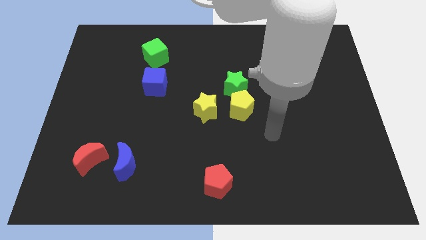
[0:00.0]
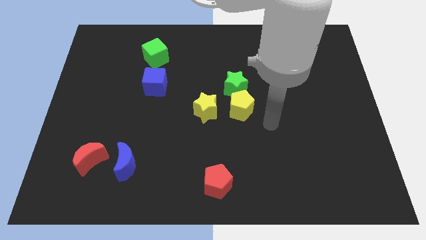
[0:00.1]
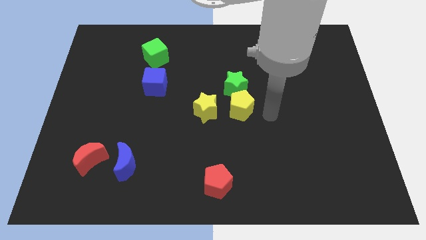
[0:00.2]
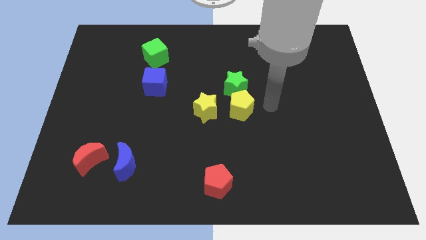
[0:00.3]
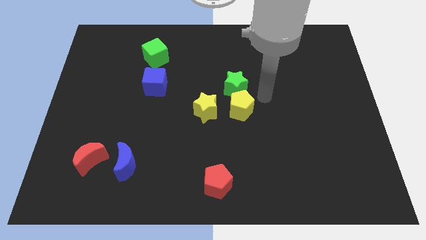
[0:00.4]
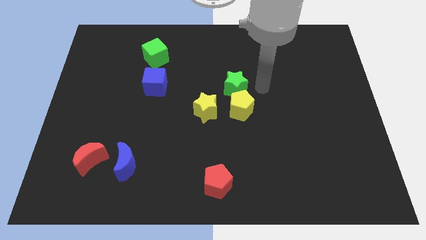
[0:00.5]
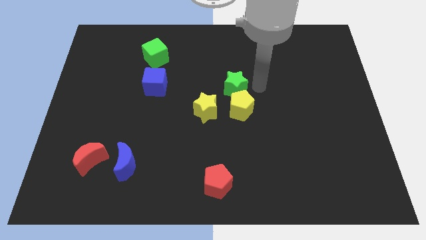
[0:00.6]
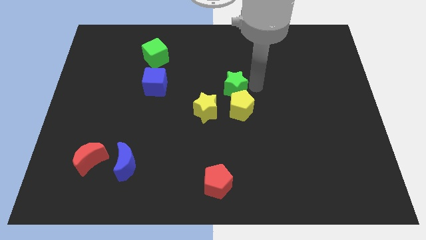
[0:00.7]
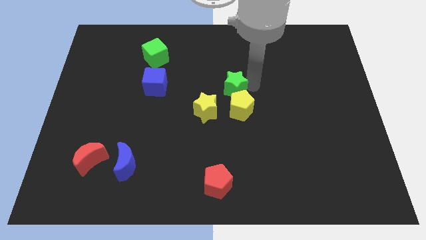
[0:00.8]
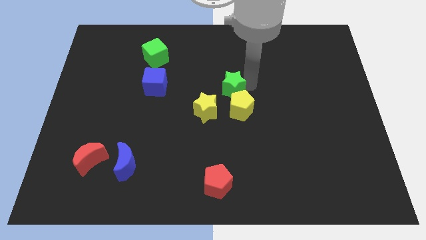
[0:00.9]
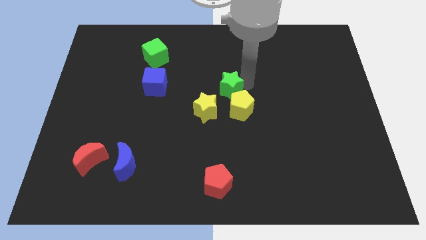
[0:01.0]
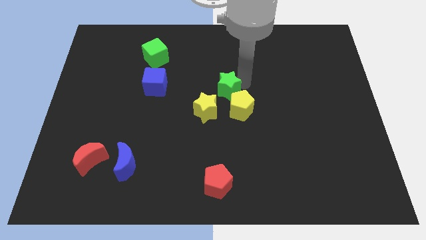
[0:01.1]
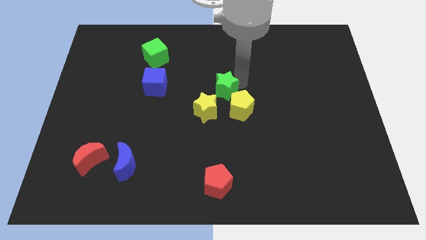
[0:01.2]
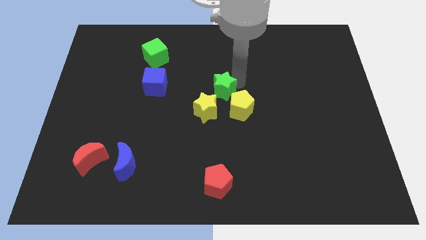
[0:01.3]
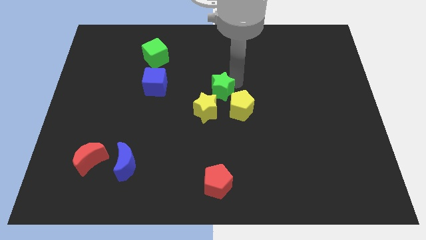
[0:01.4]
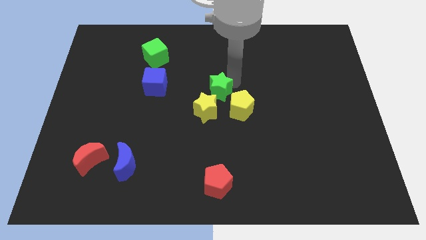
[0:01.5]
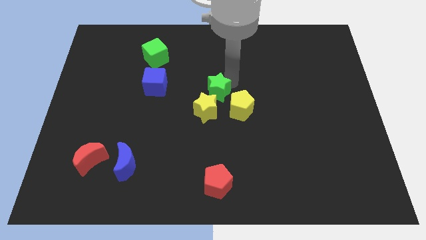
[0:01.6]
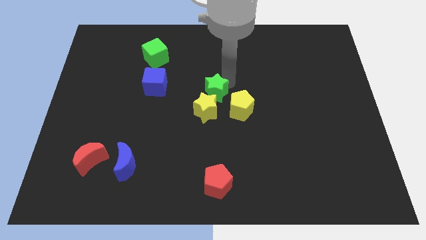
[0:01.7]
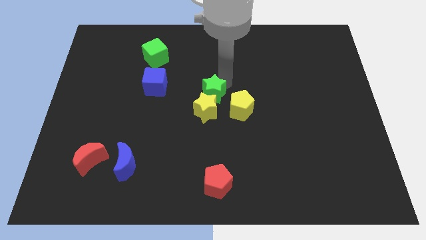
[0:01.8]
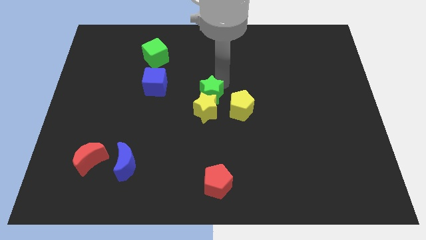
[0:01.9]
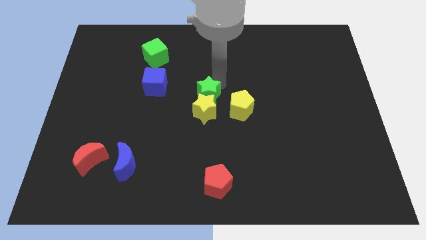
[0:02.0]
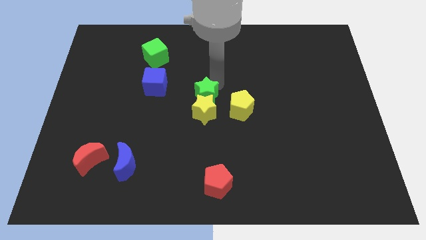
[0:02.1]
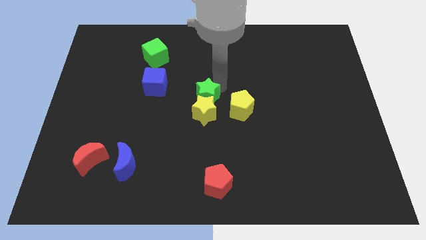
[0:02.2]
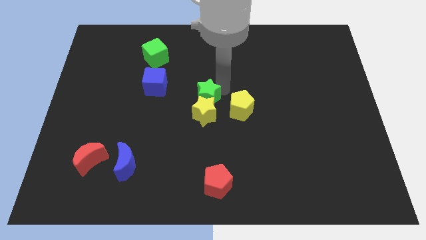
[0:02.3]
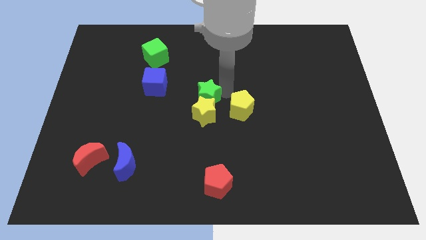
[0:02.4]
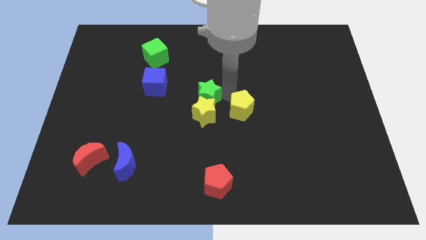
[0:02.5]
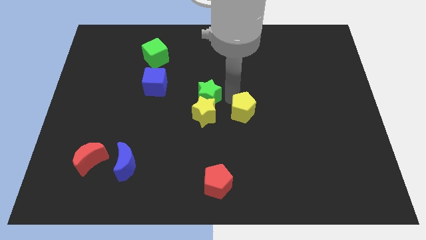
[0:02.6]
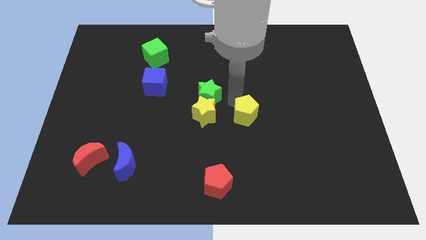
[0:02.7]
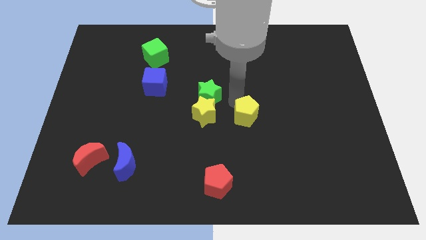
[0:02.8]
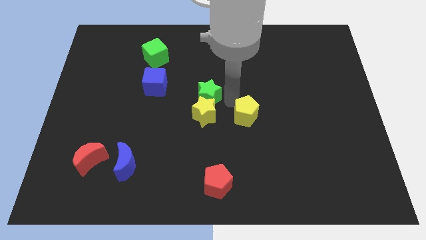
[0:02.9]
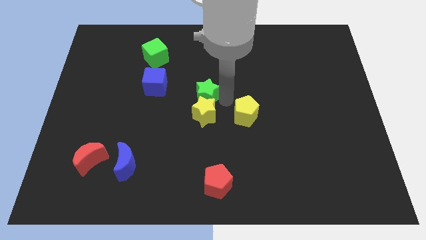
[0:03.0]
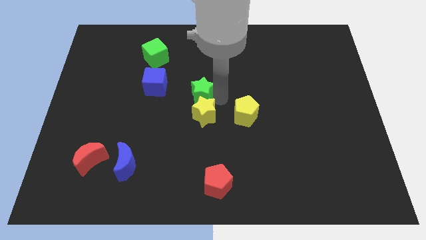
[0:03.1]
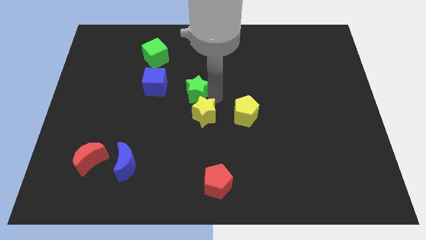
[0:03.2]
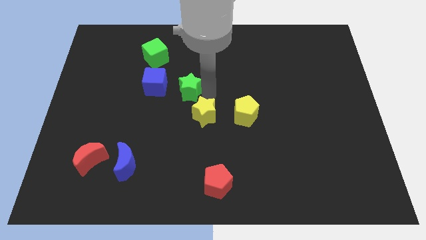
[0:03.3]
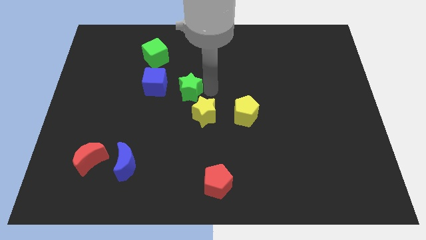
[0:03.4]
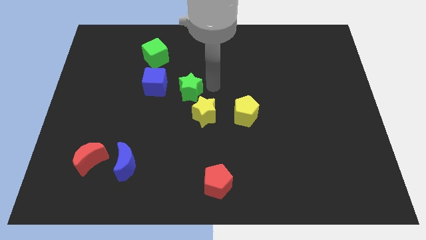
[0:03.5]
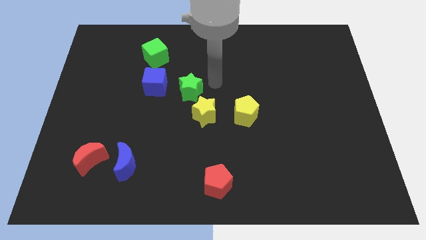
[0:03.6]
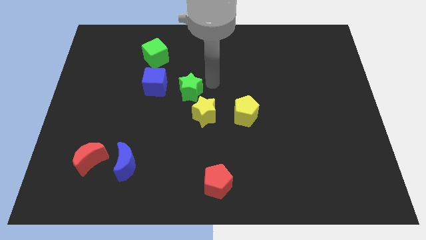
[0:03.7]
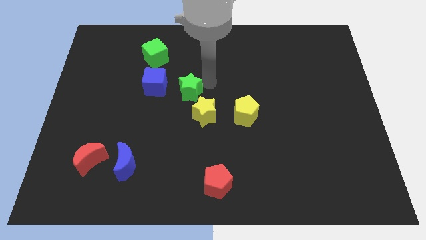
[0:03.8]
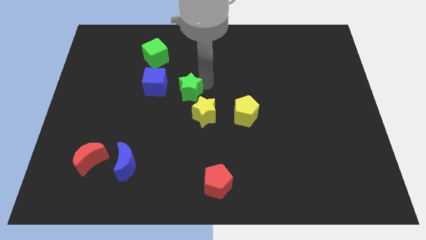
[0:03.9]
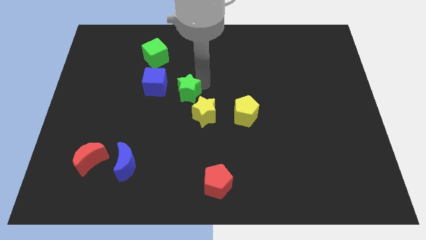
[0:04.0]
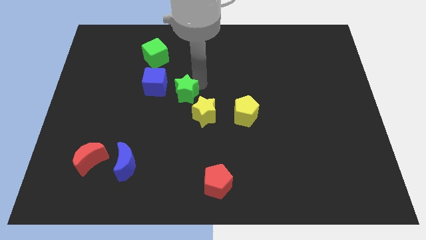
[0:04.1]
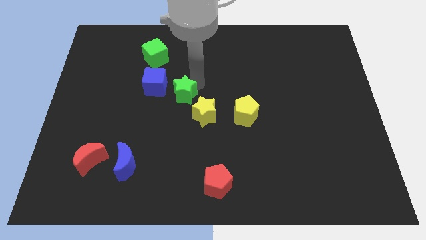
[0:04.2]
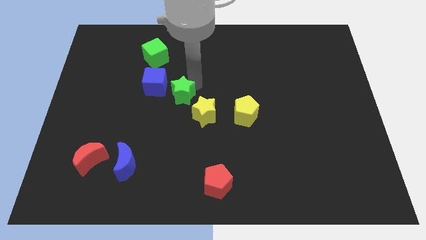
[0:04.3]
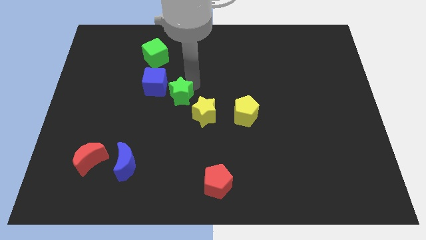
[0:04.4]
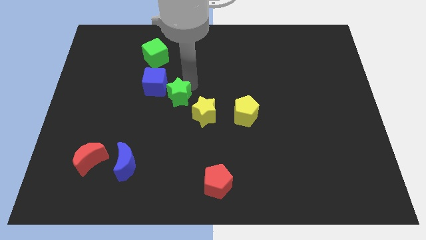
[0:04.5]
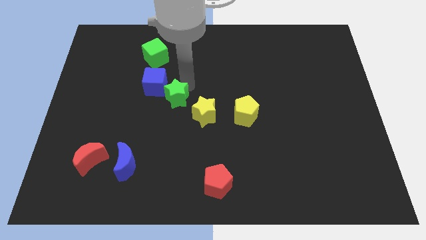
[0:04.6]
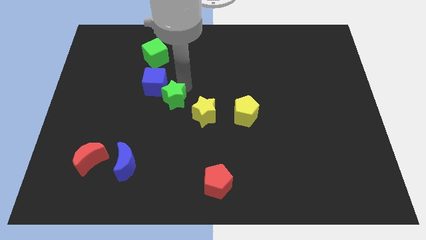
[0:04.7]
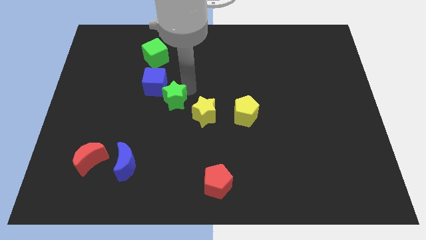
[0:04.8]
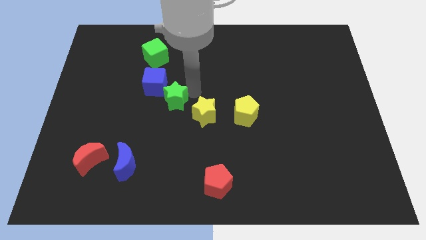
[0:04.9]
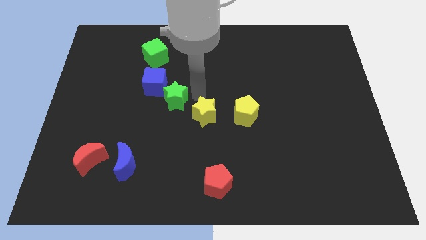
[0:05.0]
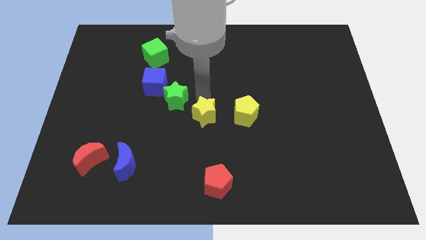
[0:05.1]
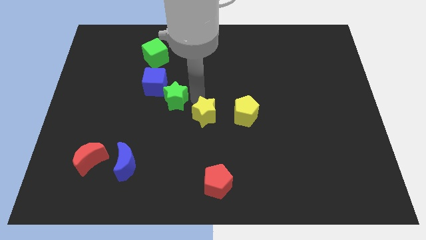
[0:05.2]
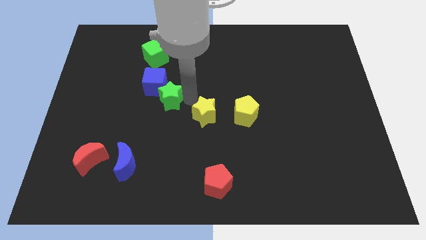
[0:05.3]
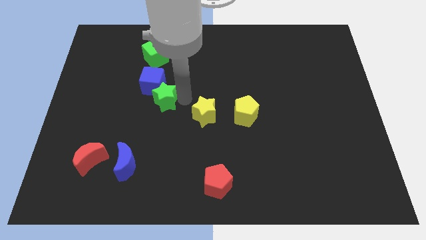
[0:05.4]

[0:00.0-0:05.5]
move the green star below the green cube

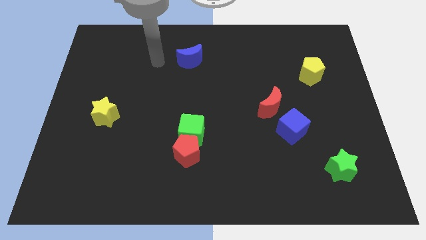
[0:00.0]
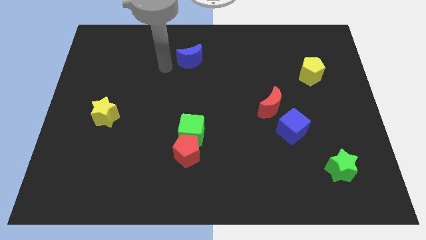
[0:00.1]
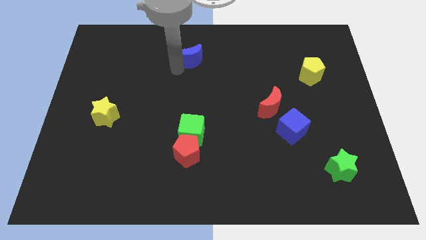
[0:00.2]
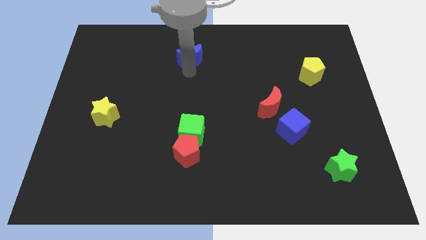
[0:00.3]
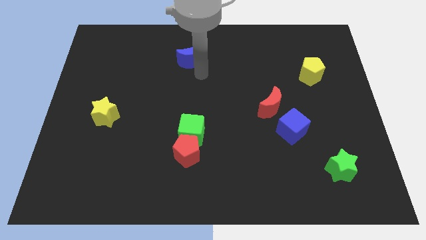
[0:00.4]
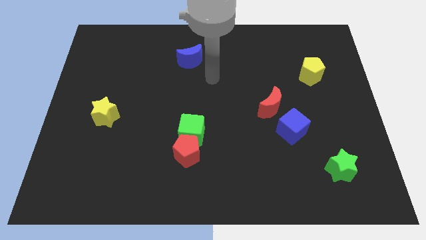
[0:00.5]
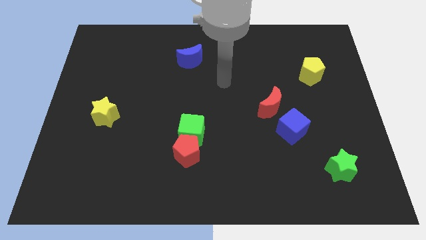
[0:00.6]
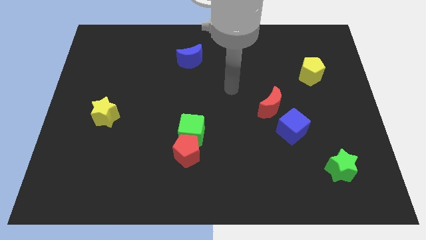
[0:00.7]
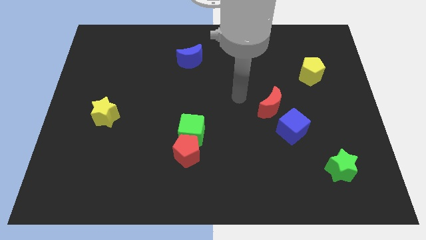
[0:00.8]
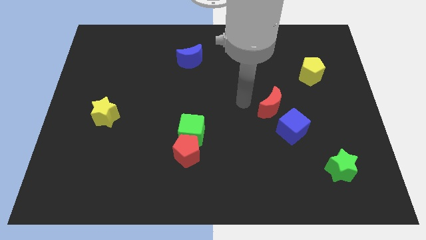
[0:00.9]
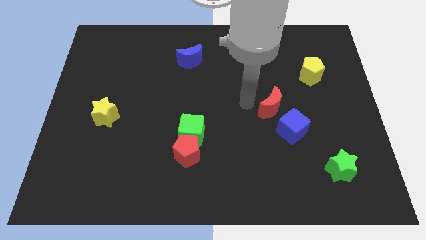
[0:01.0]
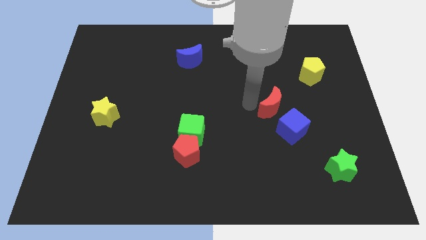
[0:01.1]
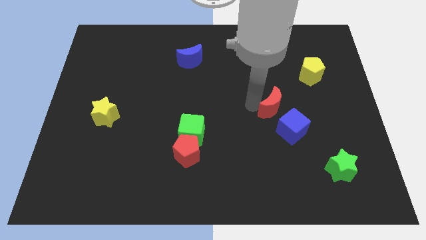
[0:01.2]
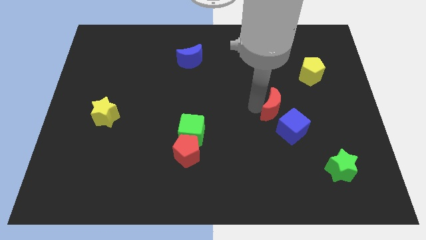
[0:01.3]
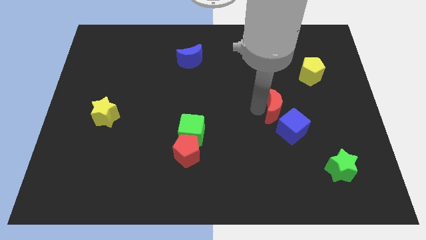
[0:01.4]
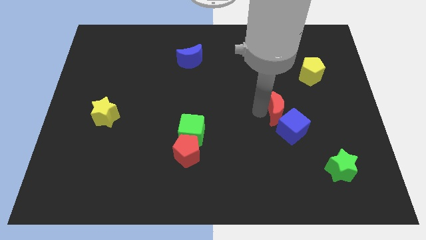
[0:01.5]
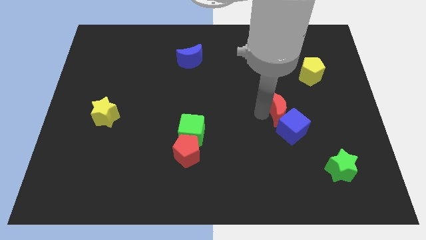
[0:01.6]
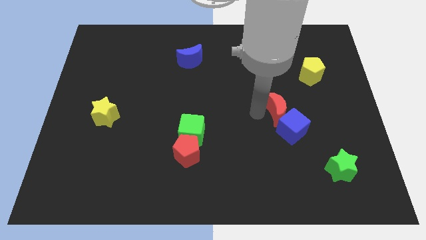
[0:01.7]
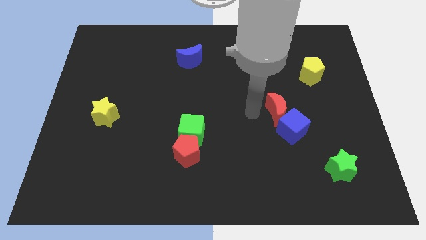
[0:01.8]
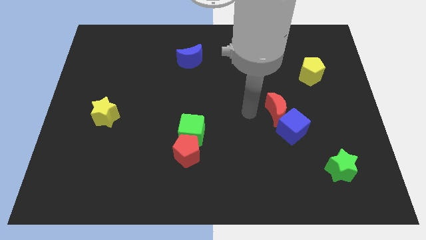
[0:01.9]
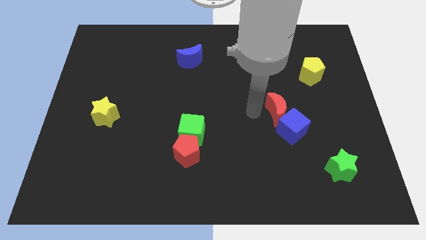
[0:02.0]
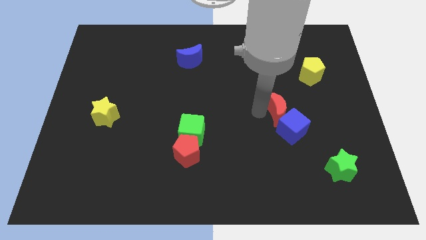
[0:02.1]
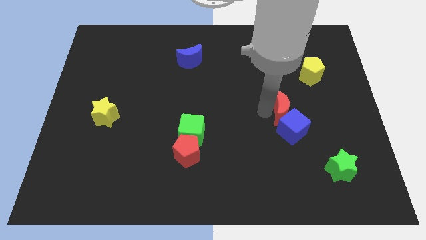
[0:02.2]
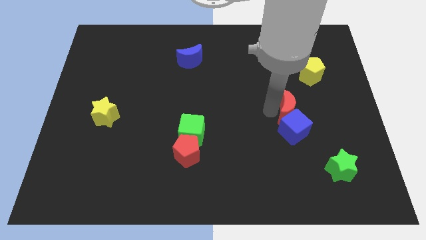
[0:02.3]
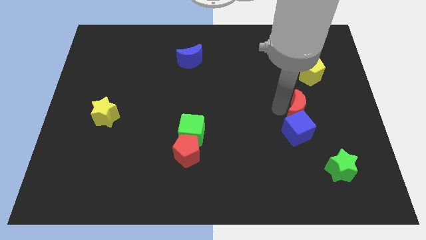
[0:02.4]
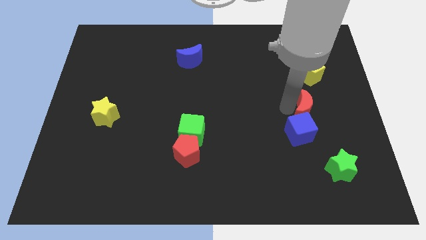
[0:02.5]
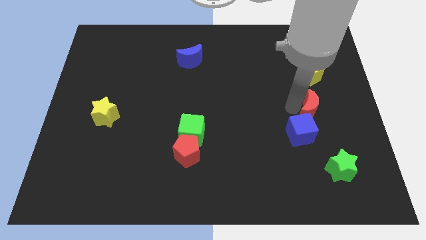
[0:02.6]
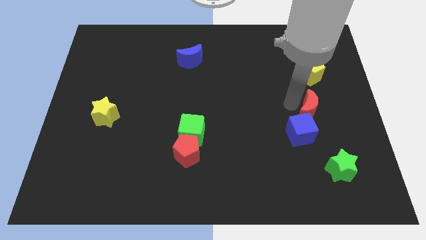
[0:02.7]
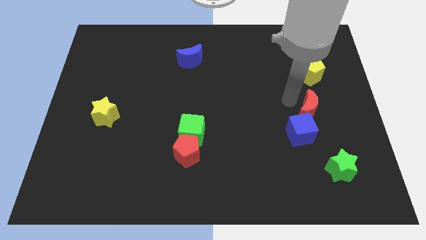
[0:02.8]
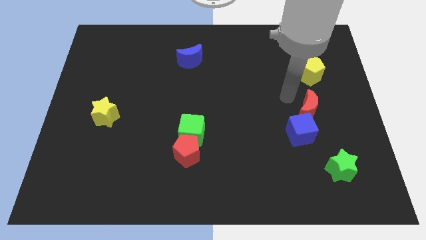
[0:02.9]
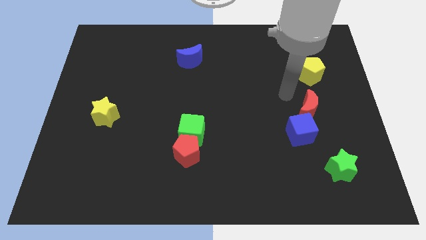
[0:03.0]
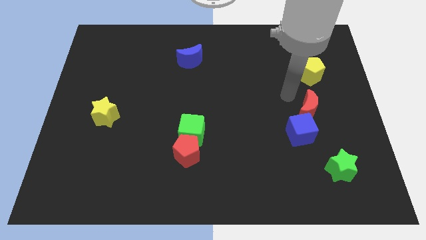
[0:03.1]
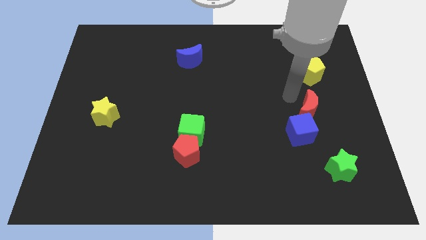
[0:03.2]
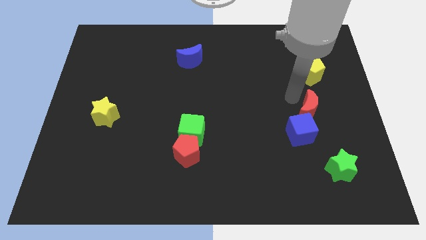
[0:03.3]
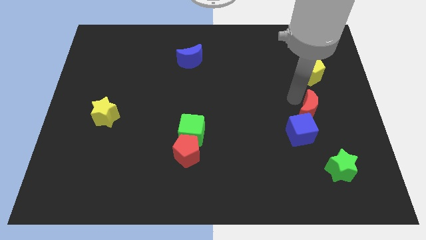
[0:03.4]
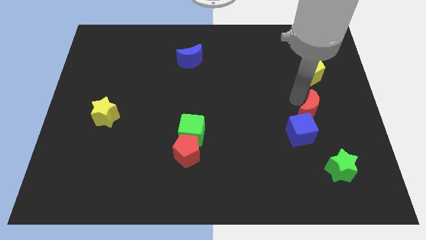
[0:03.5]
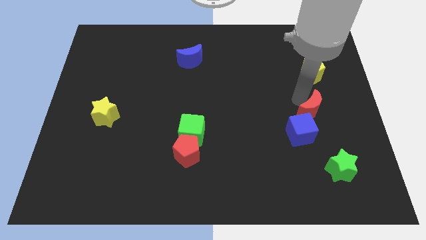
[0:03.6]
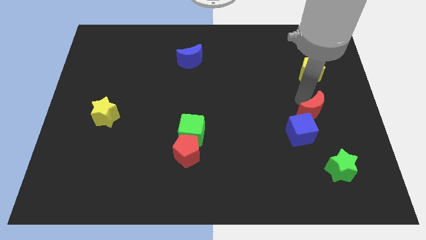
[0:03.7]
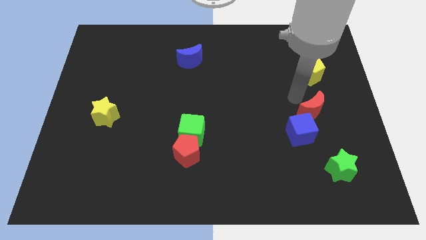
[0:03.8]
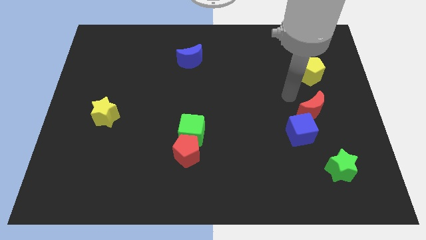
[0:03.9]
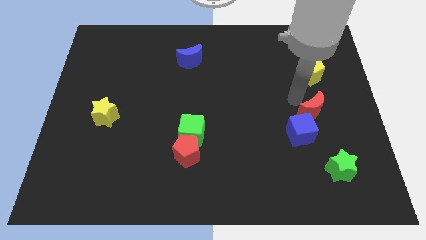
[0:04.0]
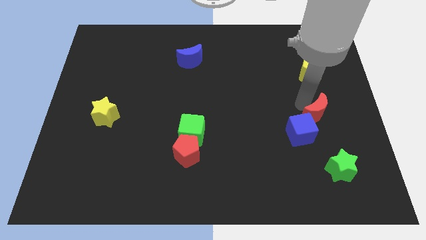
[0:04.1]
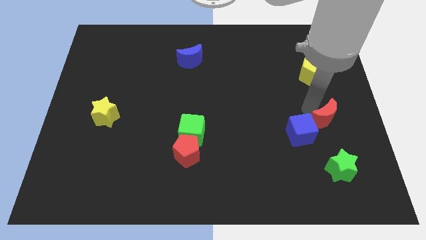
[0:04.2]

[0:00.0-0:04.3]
move the red moon just right of the blue cube
